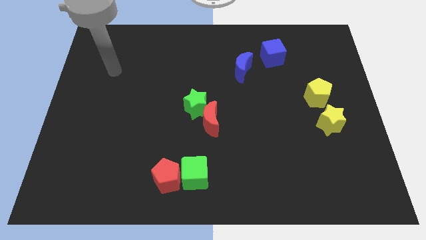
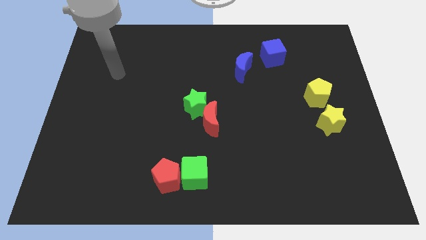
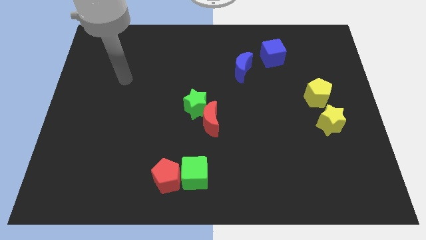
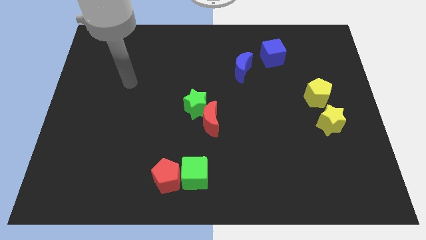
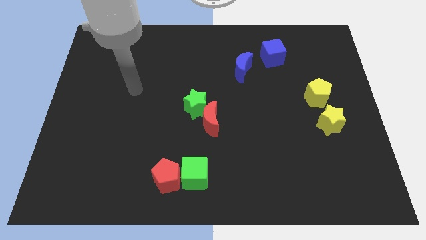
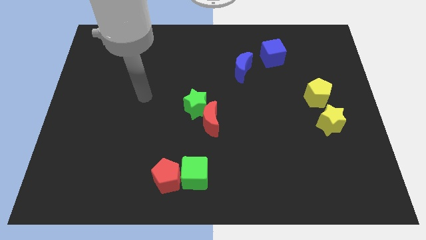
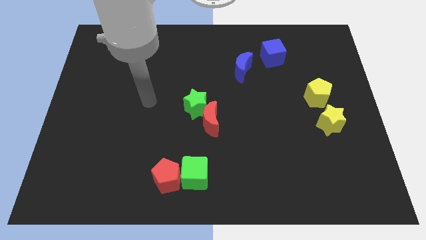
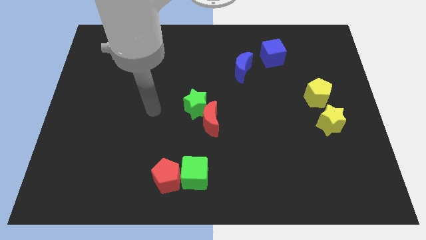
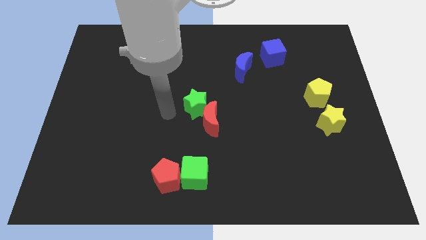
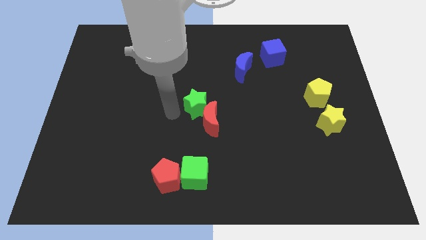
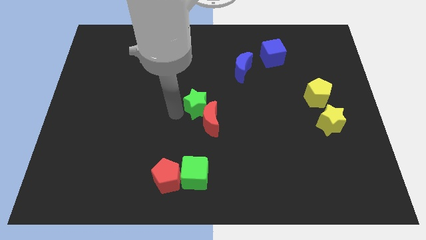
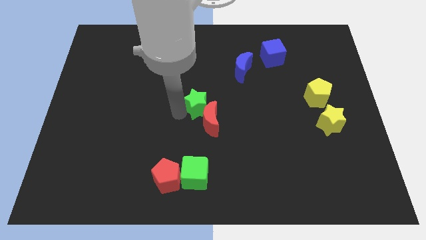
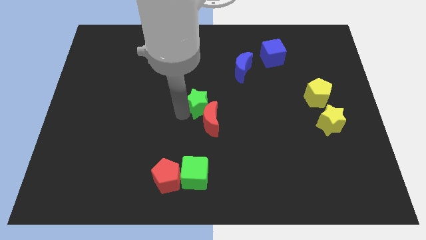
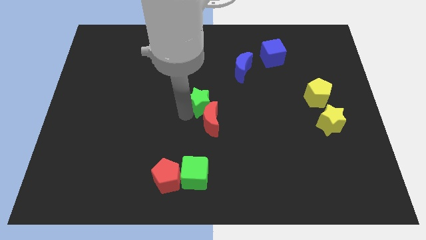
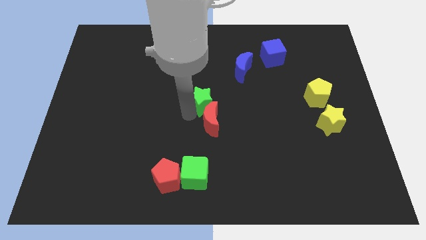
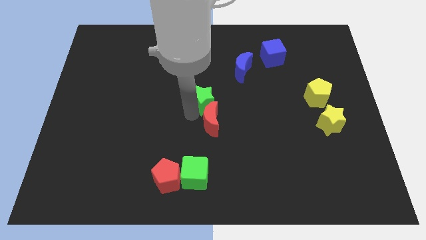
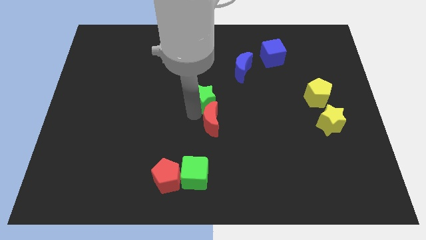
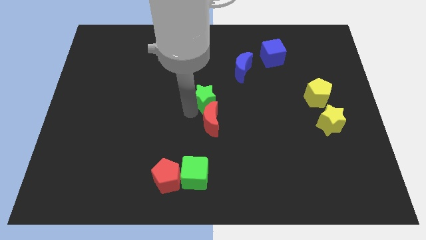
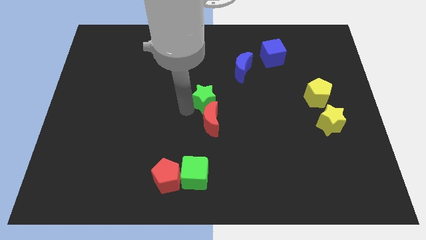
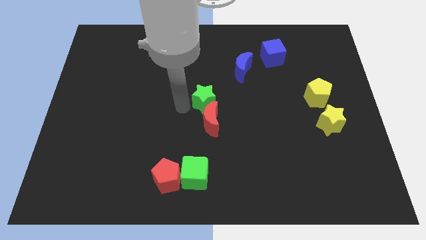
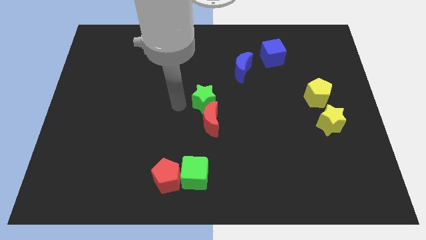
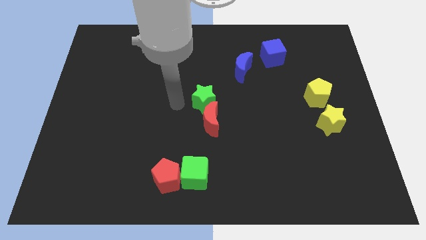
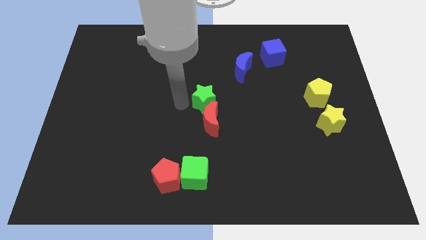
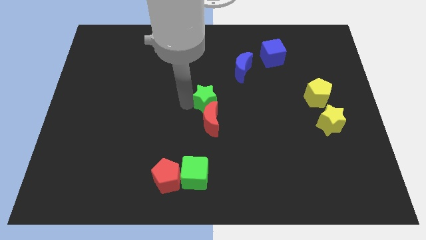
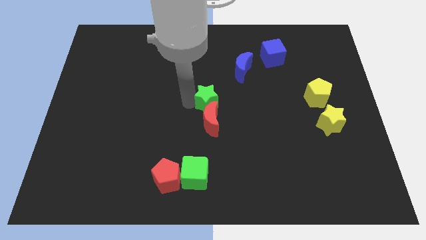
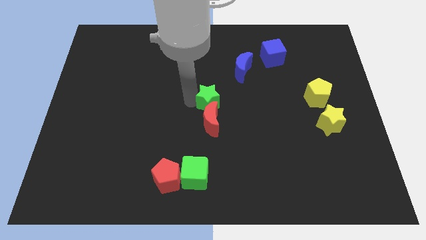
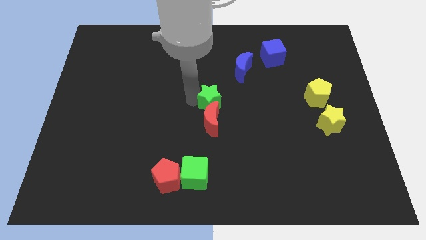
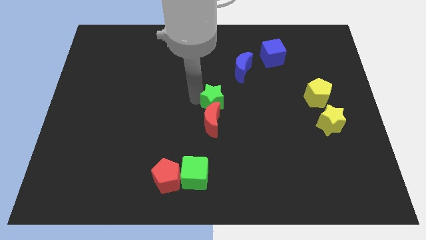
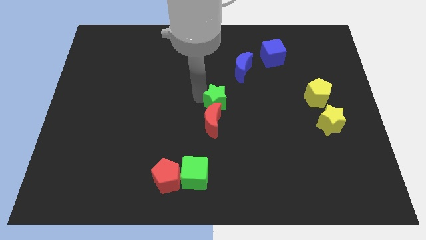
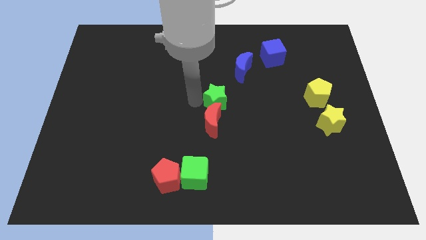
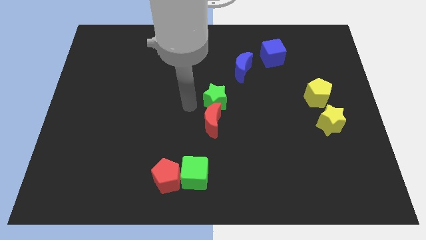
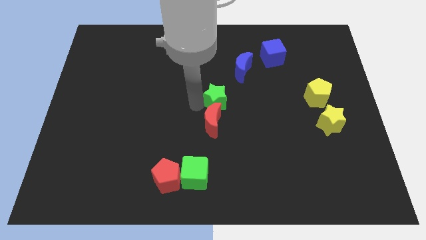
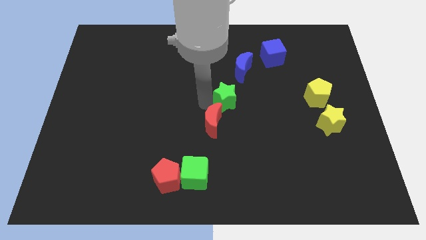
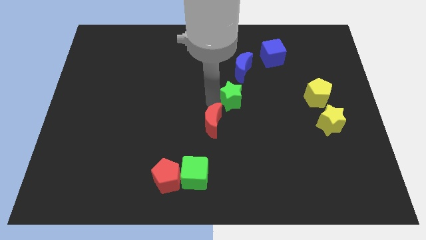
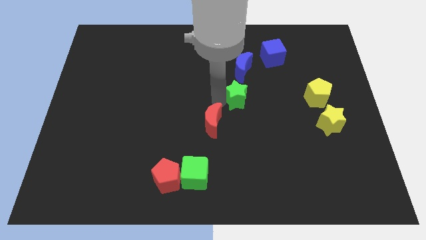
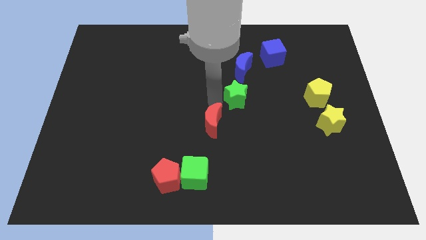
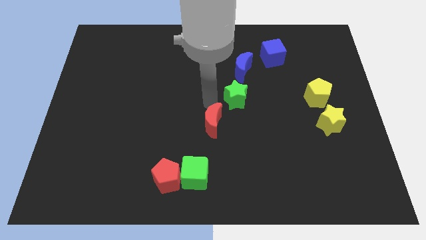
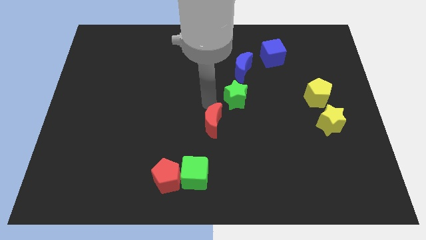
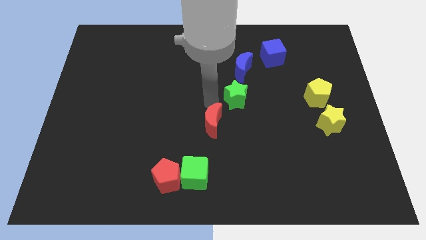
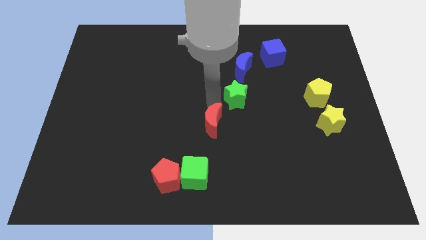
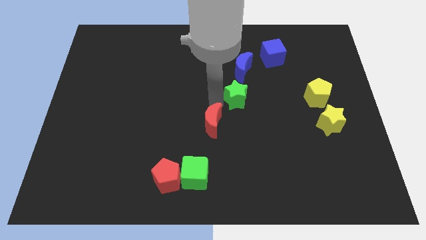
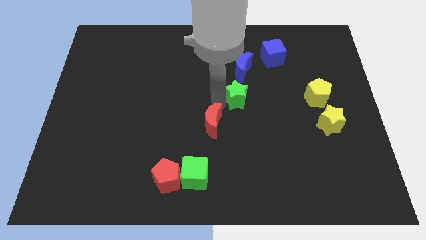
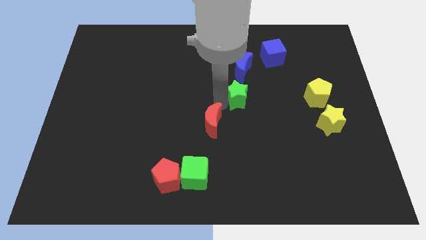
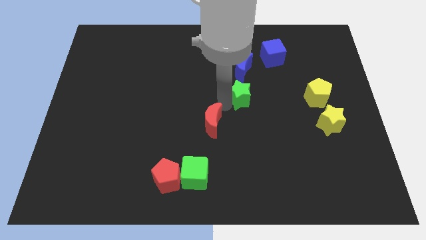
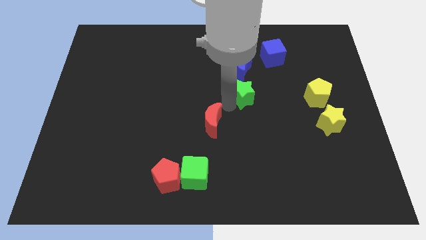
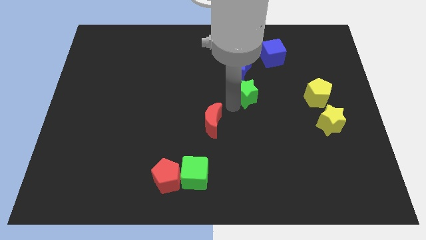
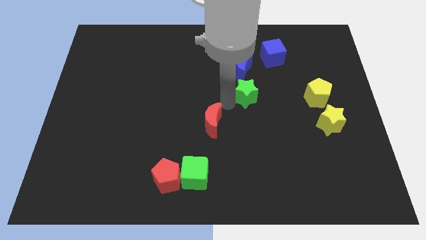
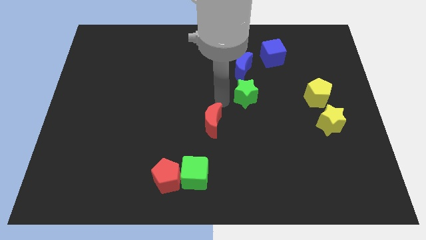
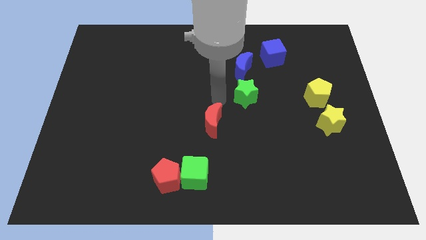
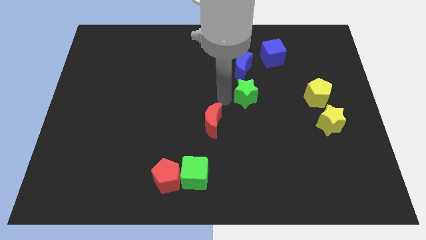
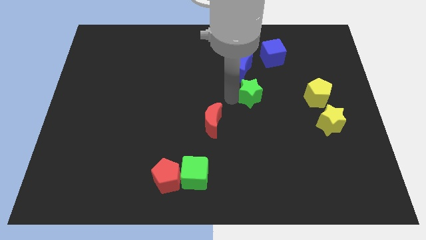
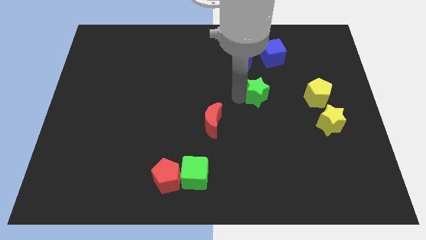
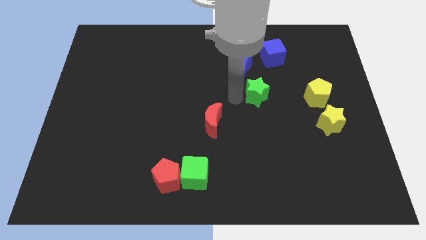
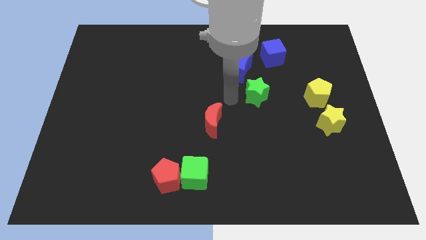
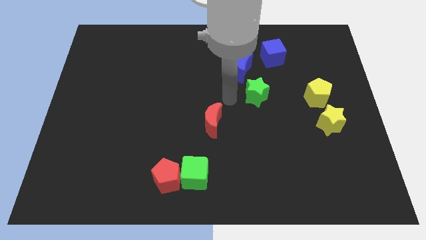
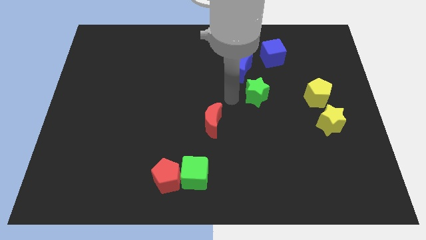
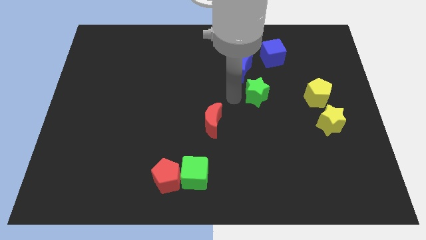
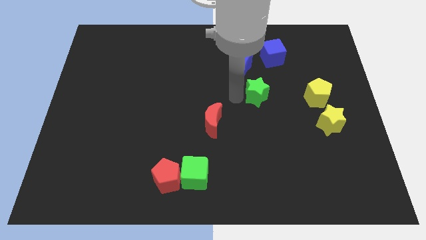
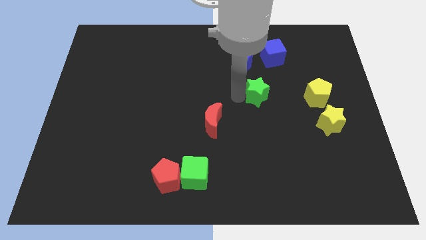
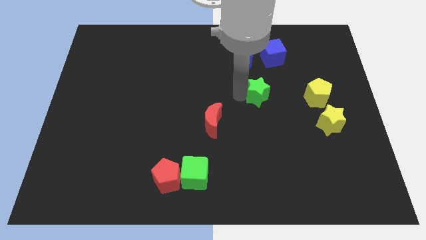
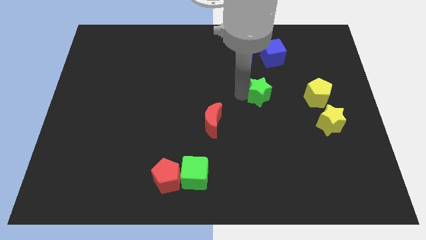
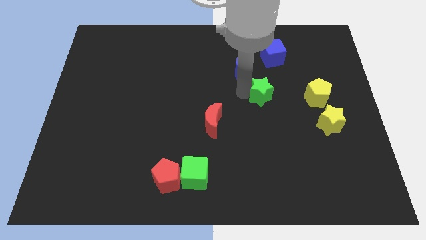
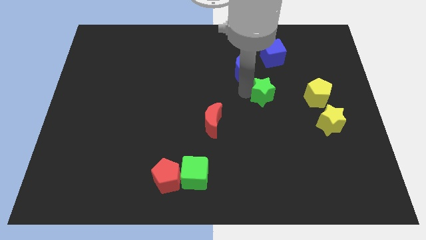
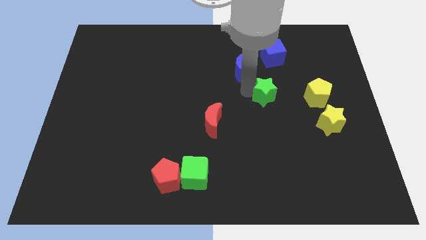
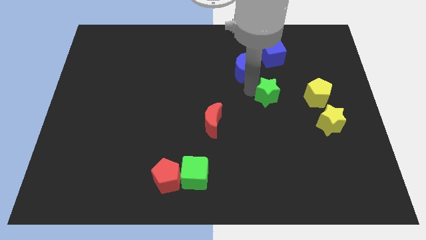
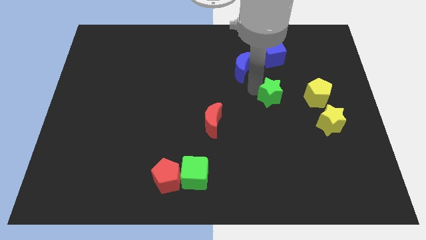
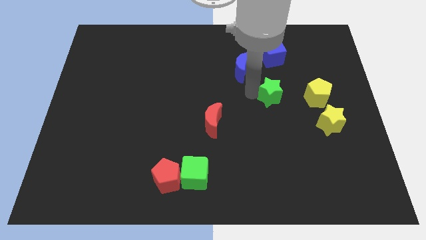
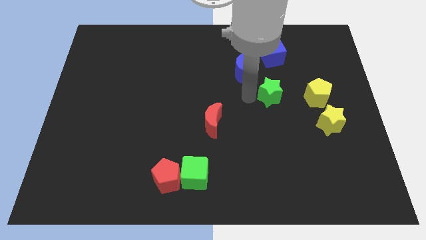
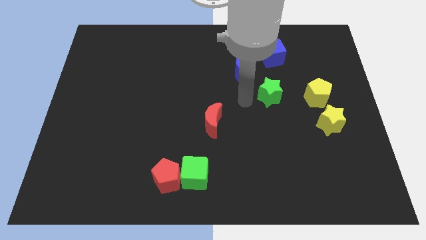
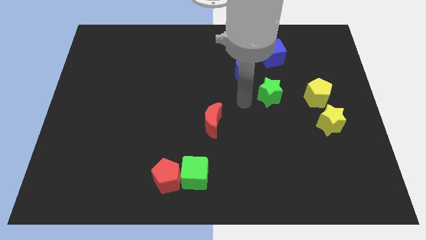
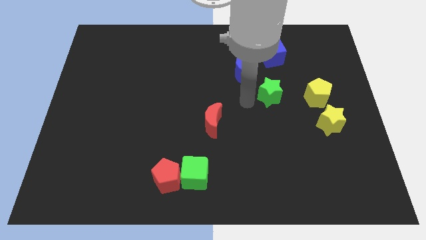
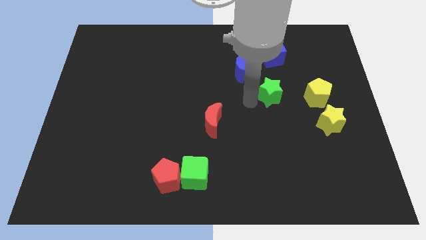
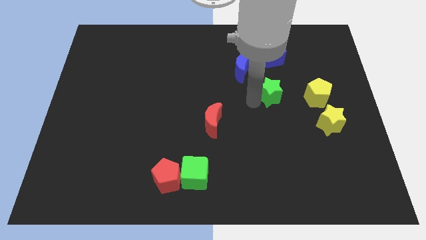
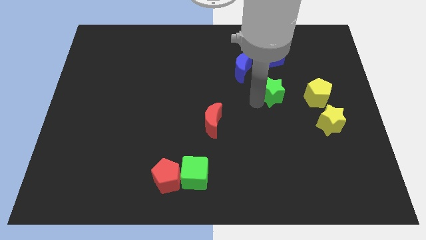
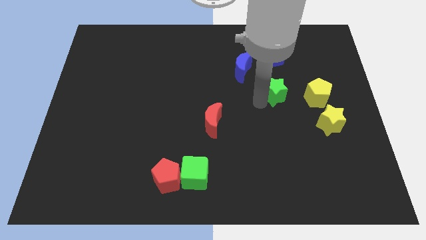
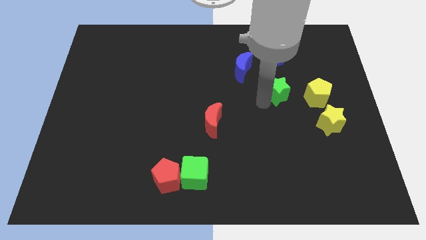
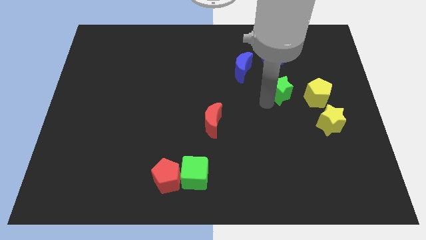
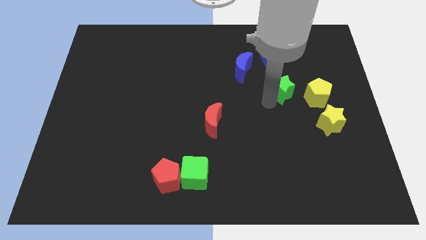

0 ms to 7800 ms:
push the green star to the right

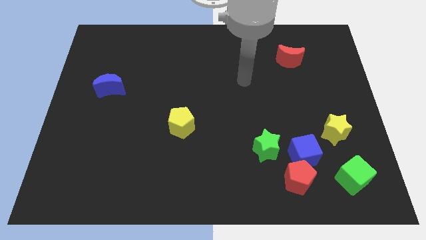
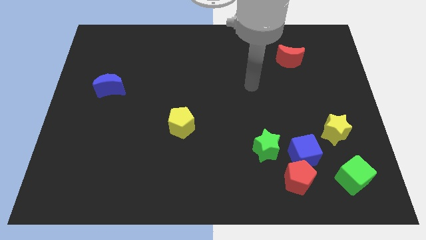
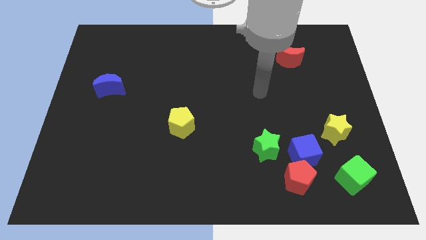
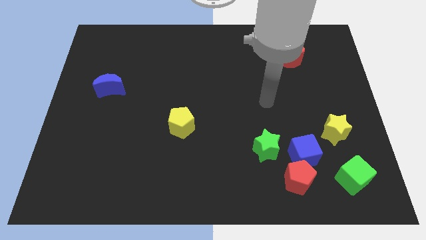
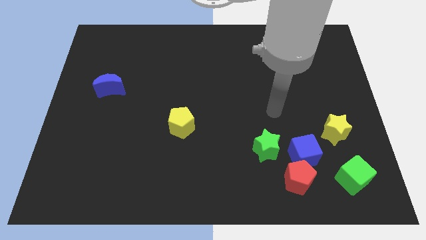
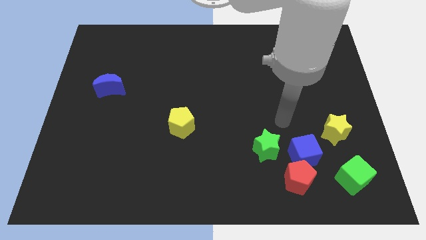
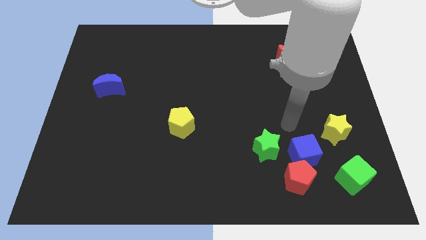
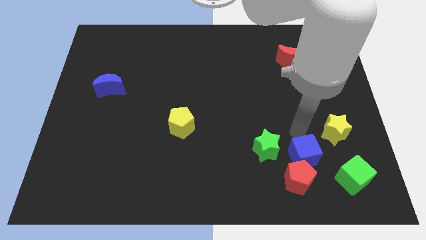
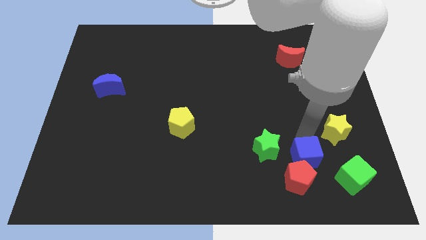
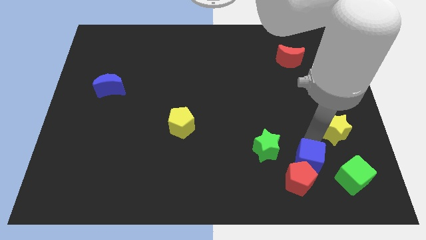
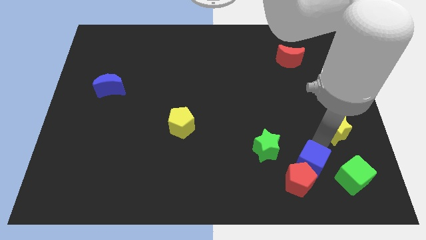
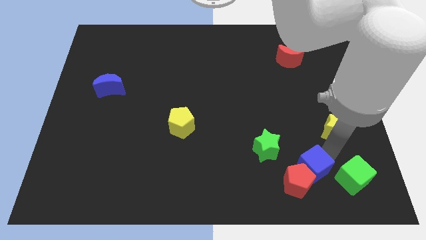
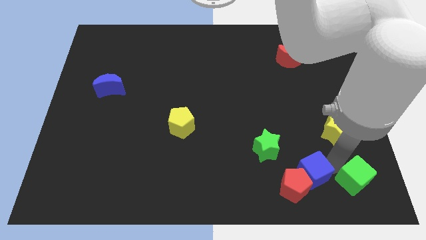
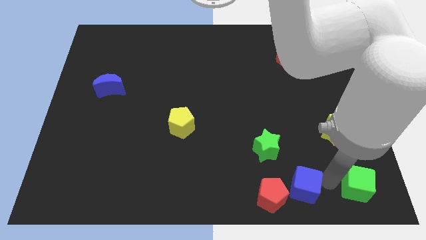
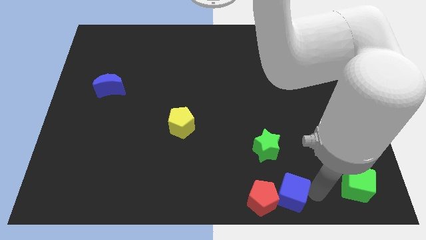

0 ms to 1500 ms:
move the red pentagon somewhat left
